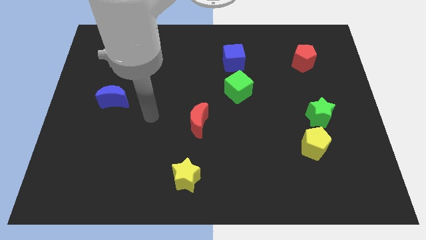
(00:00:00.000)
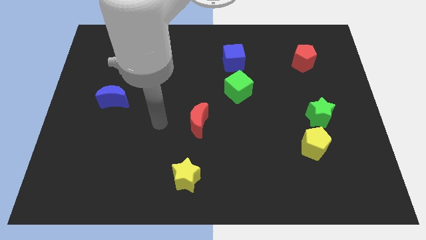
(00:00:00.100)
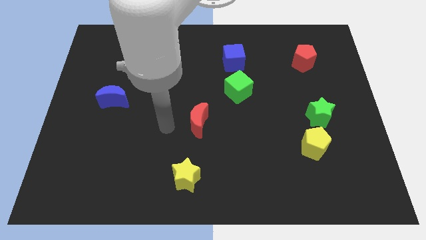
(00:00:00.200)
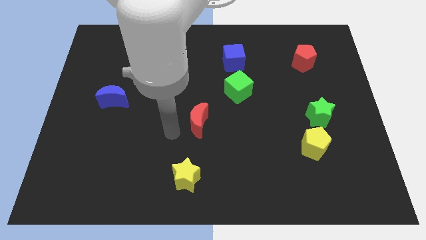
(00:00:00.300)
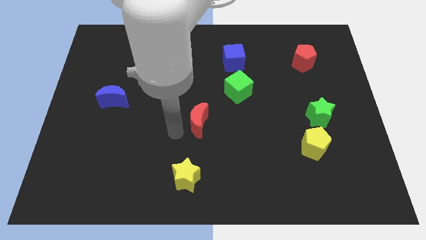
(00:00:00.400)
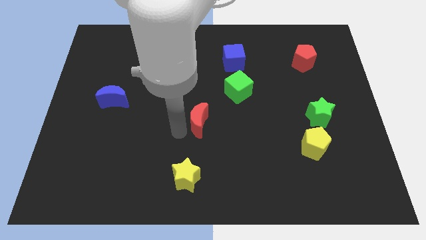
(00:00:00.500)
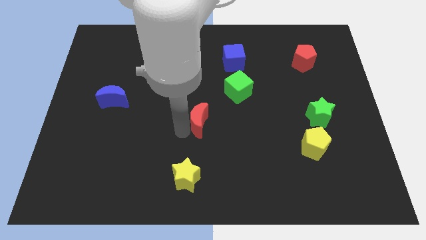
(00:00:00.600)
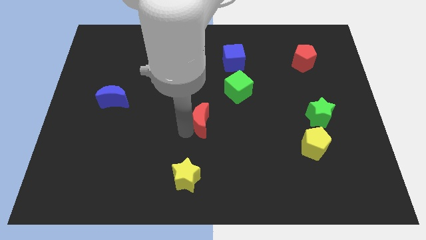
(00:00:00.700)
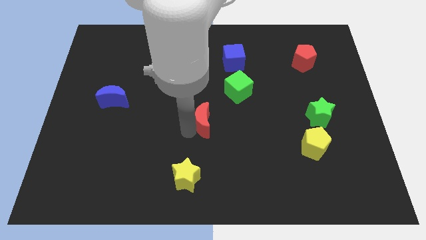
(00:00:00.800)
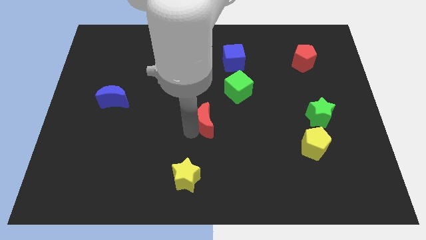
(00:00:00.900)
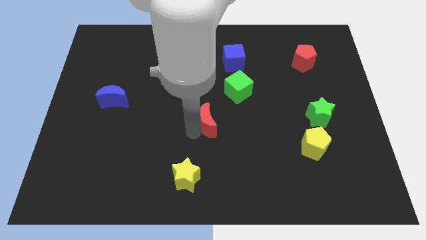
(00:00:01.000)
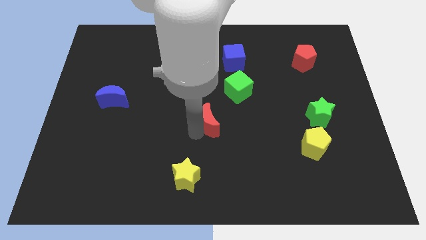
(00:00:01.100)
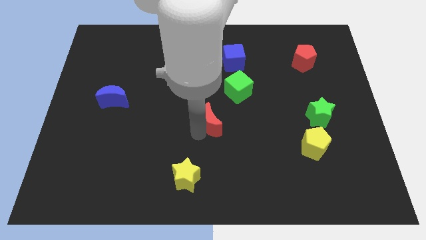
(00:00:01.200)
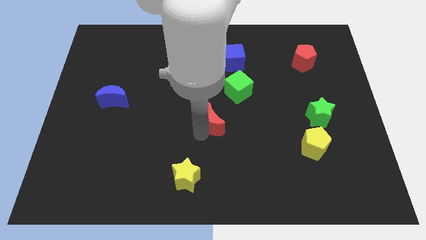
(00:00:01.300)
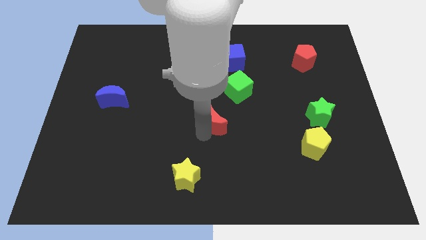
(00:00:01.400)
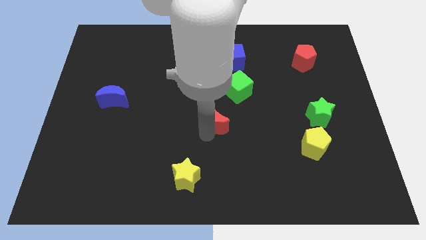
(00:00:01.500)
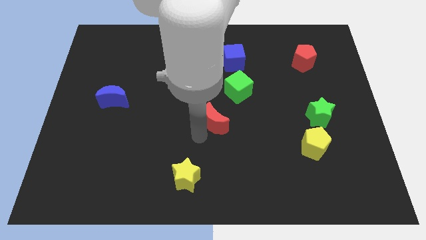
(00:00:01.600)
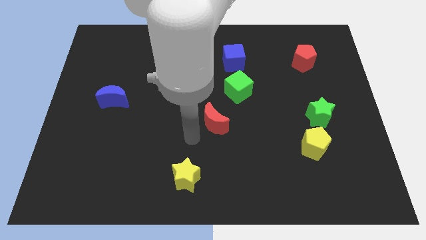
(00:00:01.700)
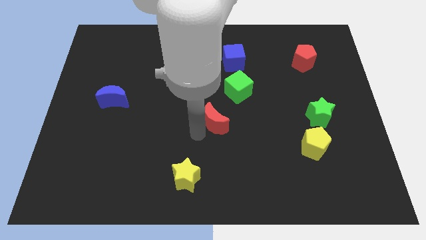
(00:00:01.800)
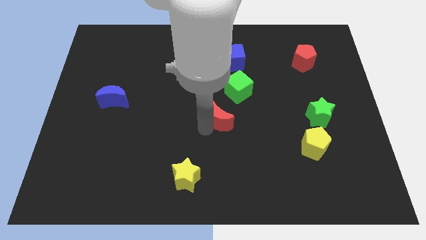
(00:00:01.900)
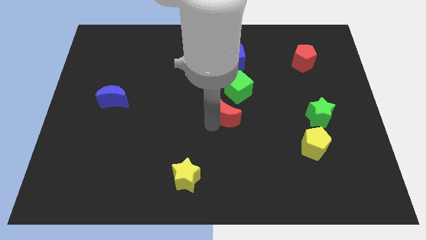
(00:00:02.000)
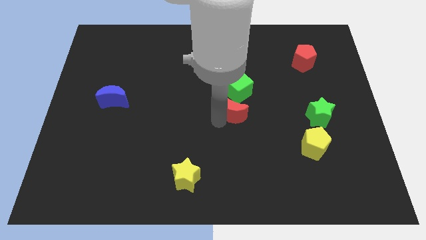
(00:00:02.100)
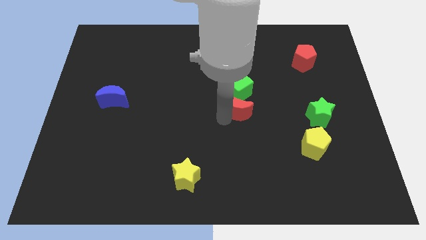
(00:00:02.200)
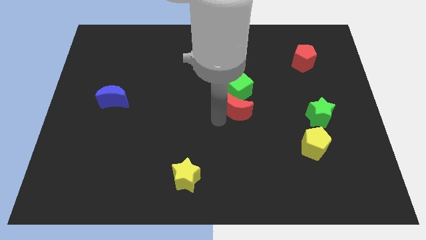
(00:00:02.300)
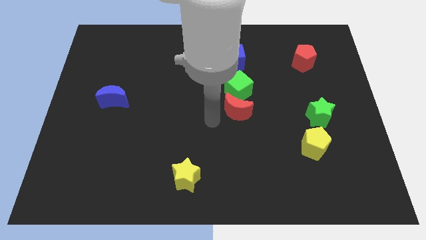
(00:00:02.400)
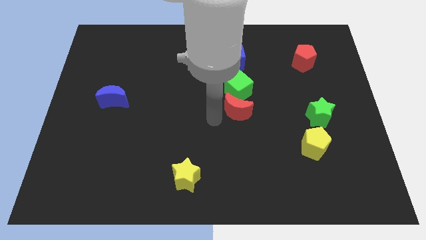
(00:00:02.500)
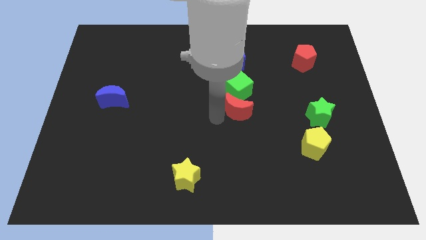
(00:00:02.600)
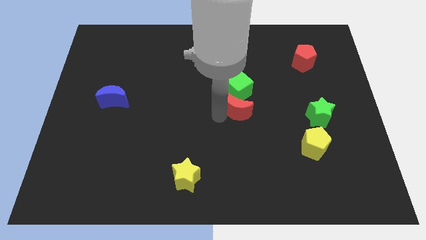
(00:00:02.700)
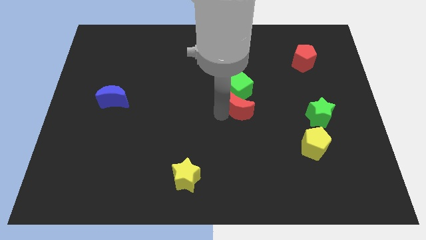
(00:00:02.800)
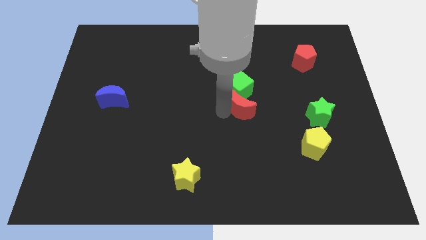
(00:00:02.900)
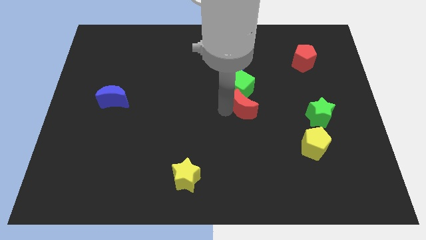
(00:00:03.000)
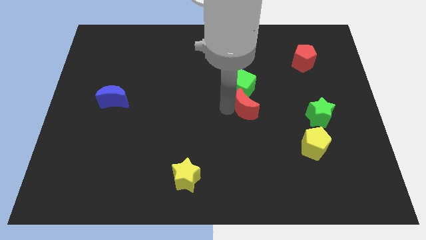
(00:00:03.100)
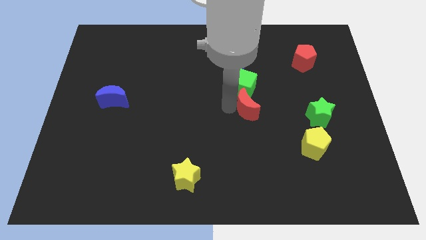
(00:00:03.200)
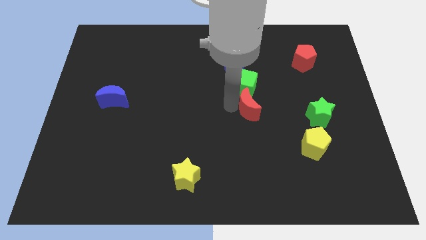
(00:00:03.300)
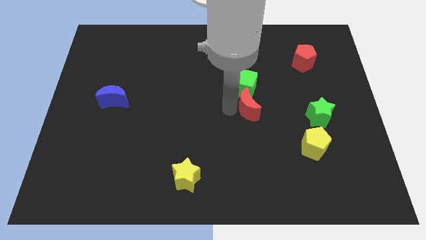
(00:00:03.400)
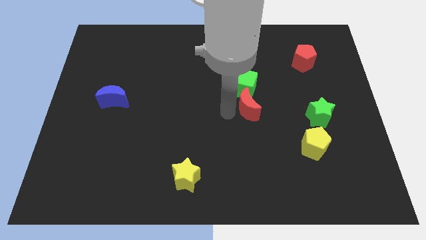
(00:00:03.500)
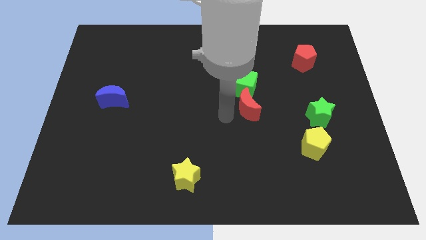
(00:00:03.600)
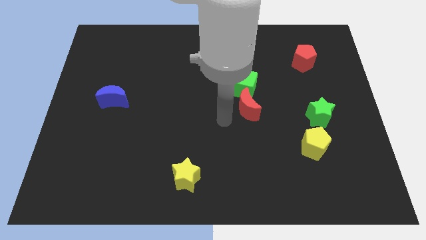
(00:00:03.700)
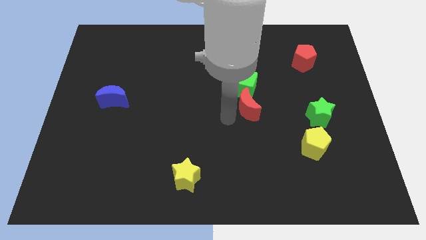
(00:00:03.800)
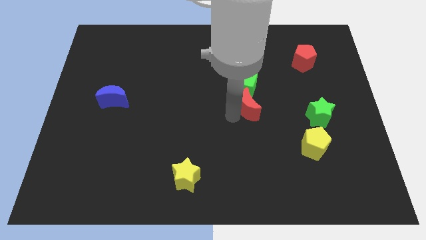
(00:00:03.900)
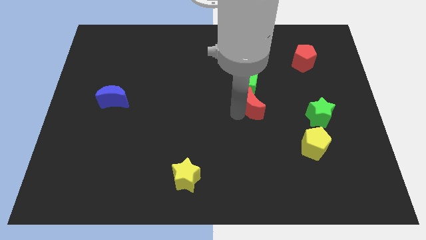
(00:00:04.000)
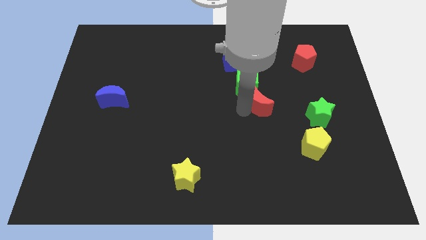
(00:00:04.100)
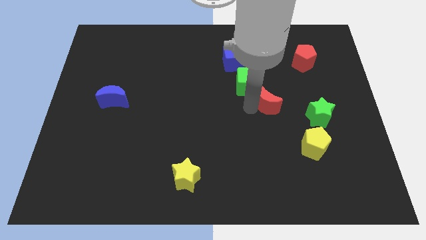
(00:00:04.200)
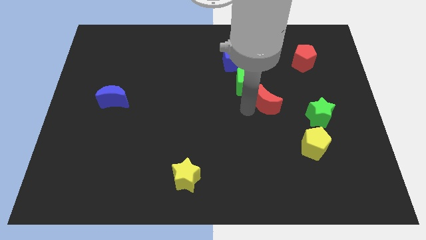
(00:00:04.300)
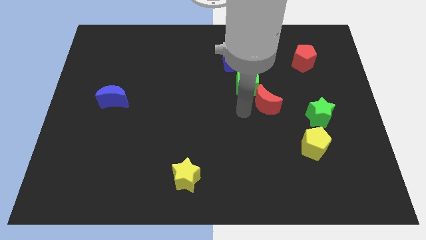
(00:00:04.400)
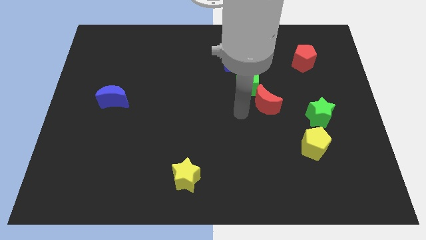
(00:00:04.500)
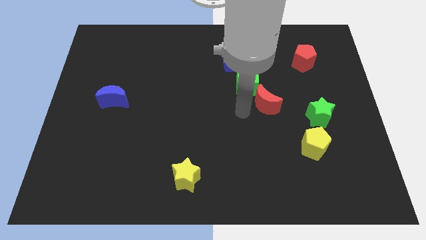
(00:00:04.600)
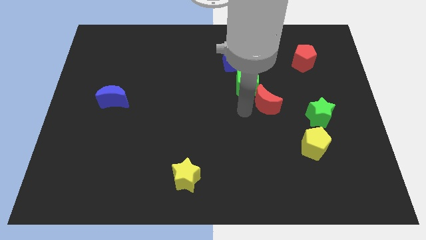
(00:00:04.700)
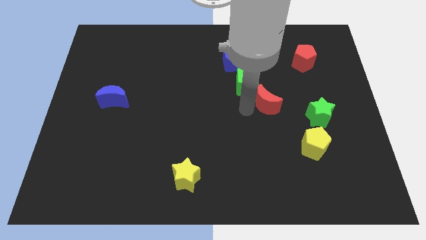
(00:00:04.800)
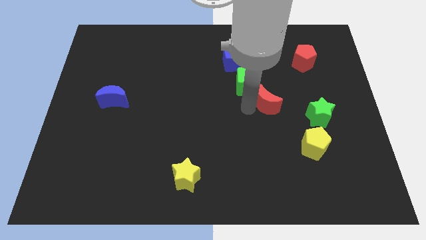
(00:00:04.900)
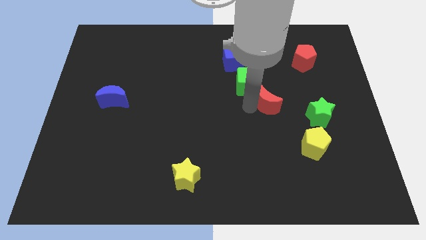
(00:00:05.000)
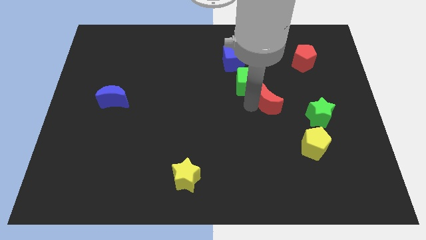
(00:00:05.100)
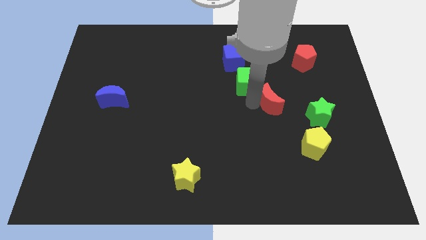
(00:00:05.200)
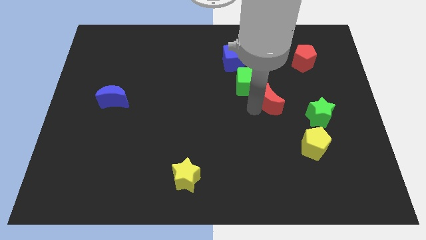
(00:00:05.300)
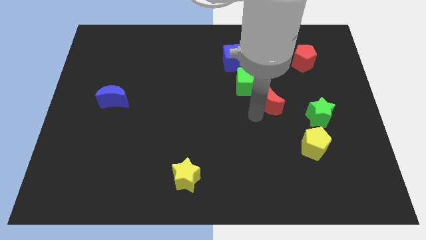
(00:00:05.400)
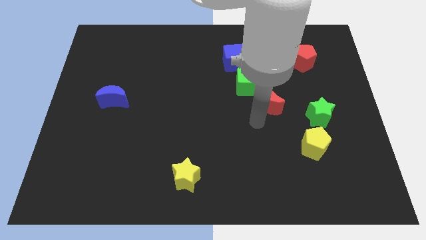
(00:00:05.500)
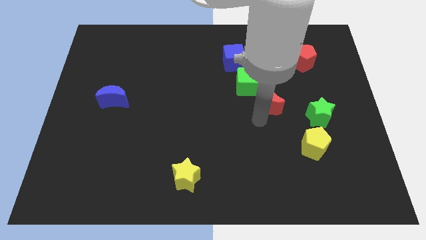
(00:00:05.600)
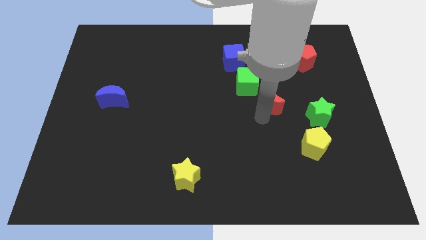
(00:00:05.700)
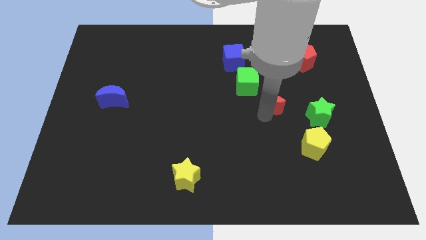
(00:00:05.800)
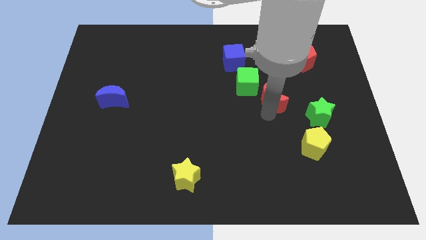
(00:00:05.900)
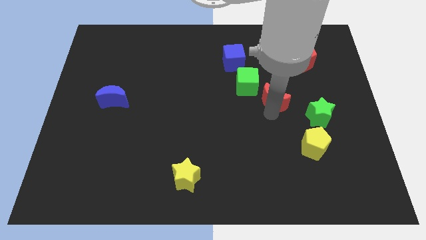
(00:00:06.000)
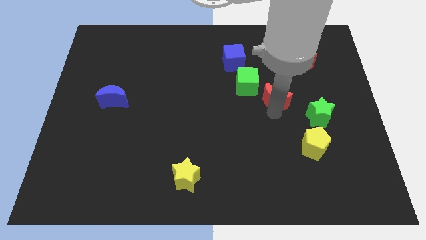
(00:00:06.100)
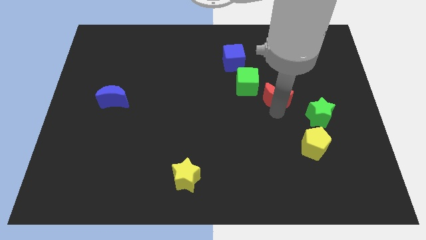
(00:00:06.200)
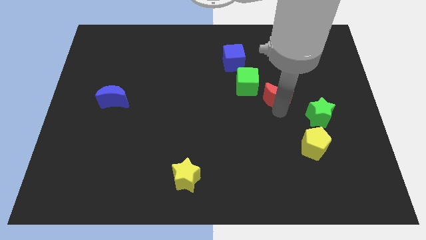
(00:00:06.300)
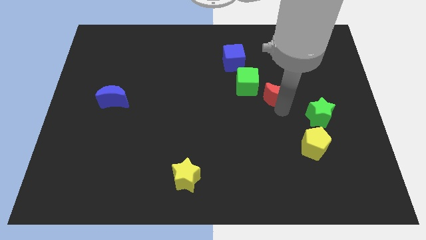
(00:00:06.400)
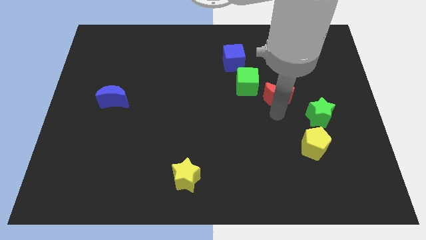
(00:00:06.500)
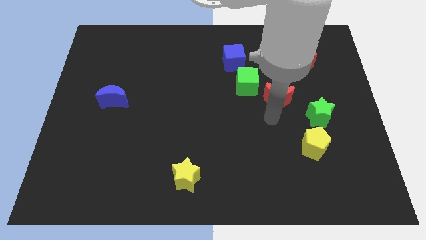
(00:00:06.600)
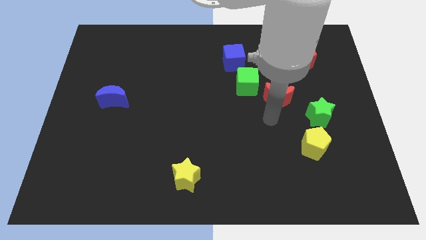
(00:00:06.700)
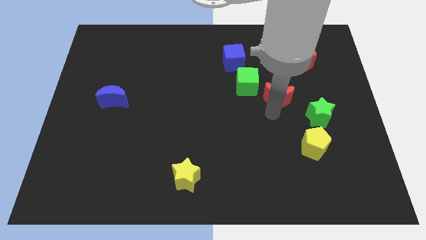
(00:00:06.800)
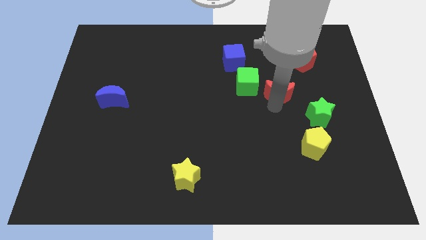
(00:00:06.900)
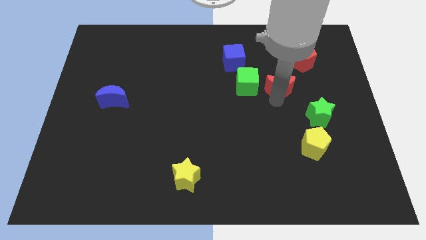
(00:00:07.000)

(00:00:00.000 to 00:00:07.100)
push the red moon to the bottom left of the red pentagon
